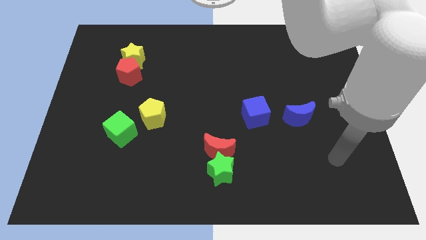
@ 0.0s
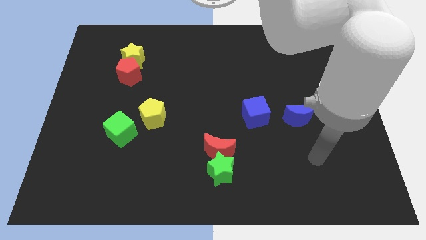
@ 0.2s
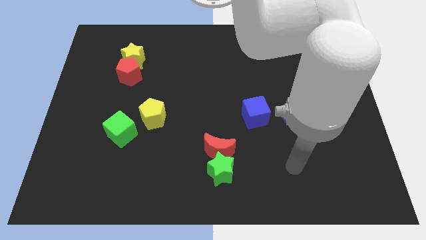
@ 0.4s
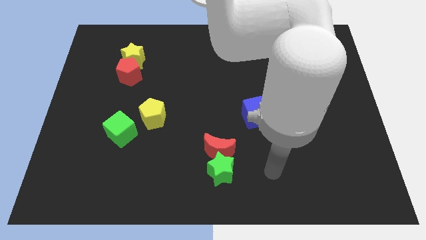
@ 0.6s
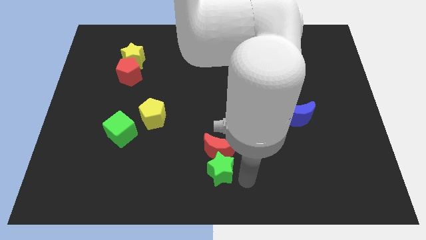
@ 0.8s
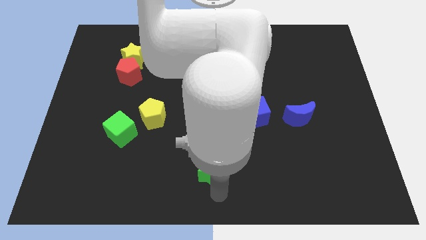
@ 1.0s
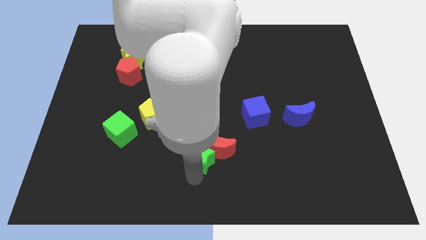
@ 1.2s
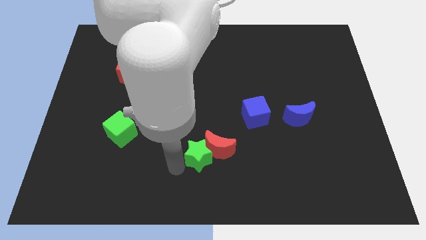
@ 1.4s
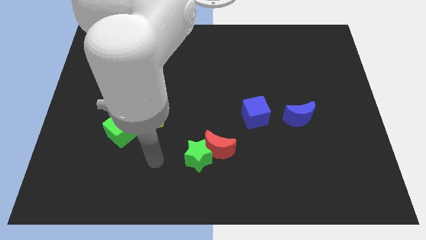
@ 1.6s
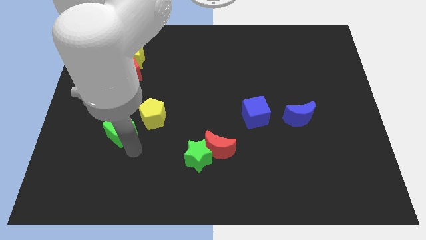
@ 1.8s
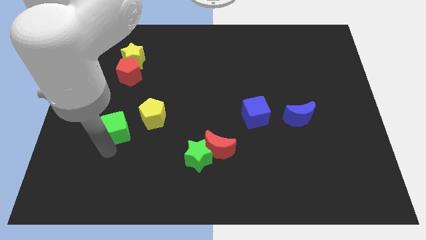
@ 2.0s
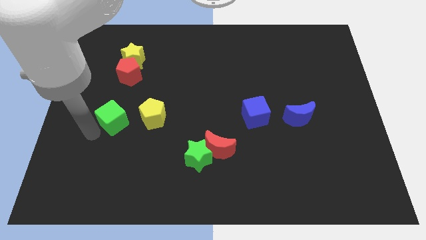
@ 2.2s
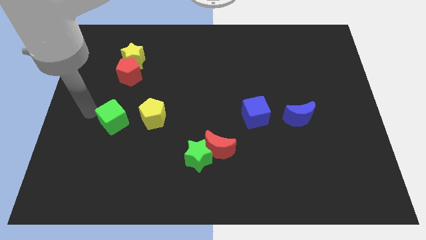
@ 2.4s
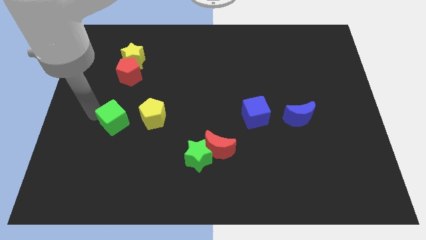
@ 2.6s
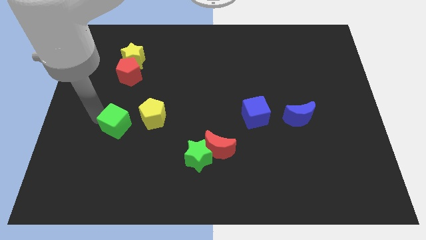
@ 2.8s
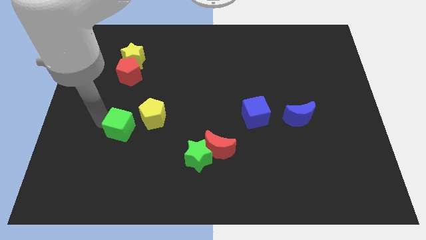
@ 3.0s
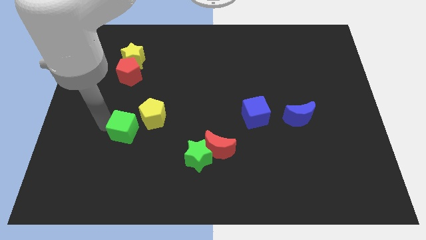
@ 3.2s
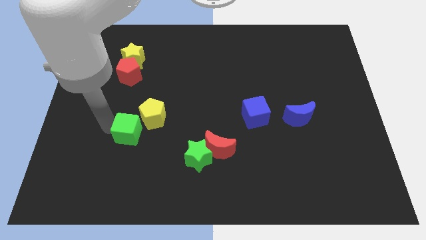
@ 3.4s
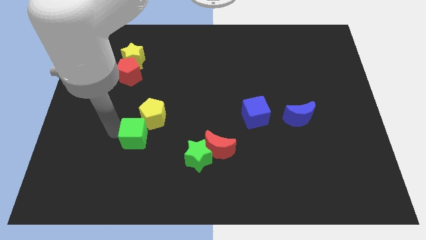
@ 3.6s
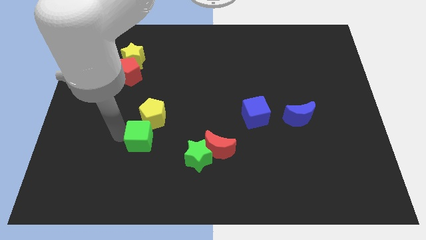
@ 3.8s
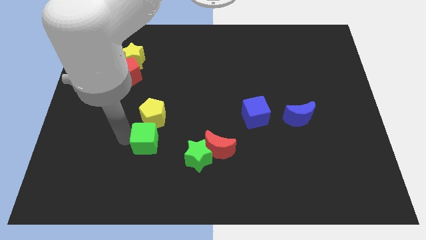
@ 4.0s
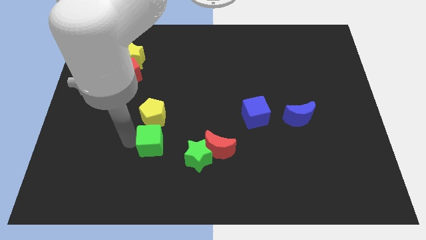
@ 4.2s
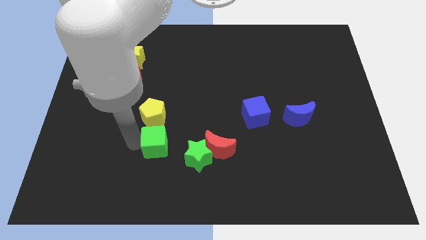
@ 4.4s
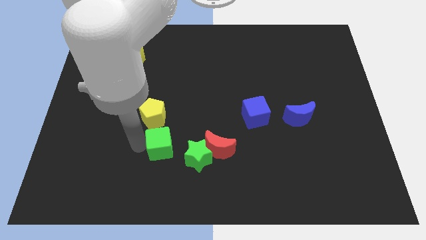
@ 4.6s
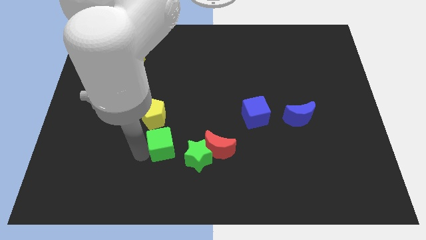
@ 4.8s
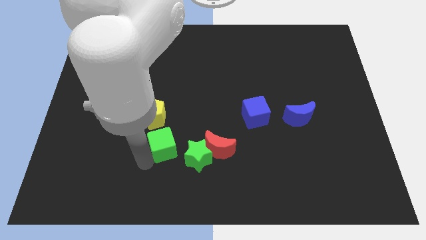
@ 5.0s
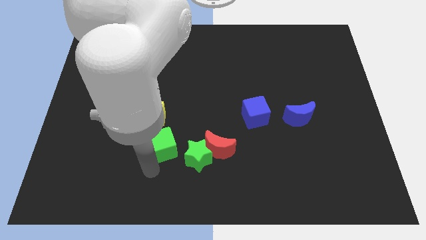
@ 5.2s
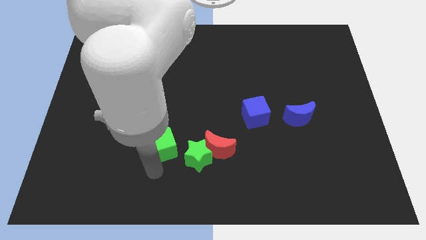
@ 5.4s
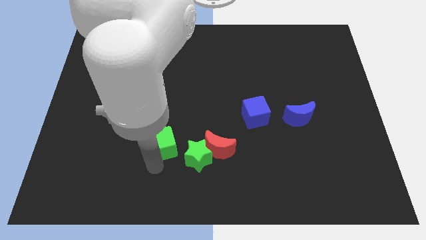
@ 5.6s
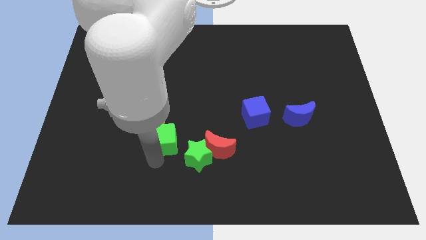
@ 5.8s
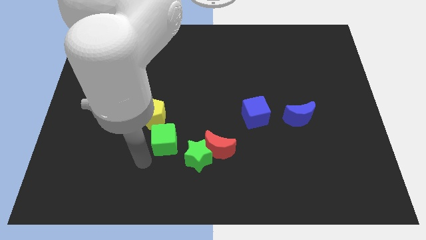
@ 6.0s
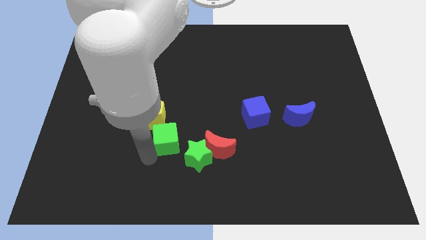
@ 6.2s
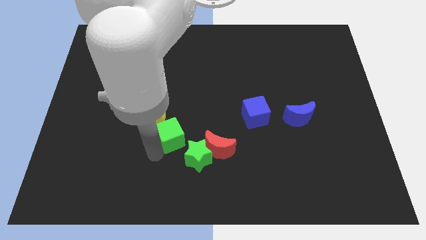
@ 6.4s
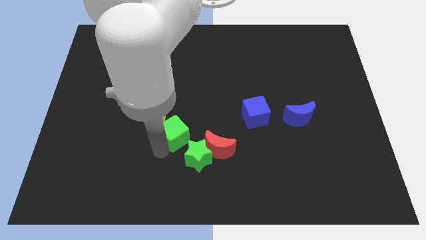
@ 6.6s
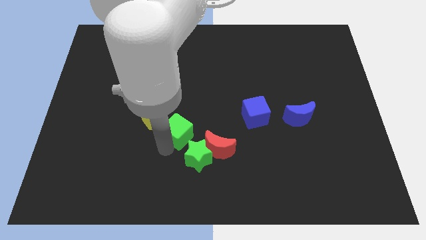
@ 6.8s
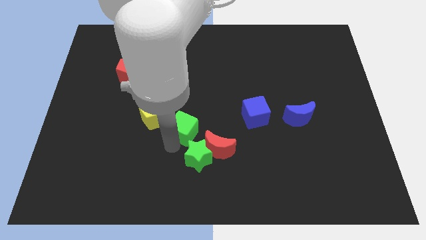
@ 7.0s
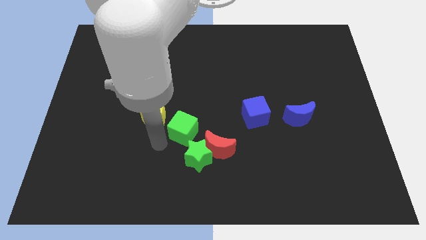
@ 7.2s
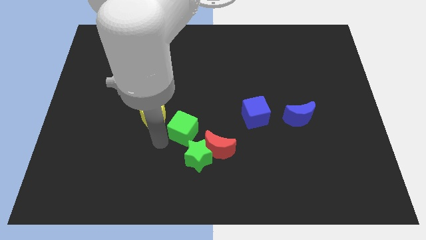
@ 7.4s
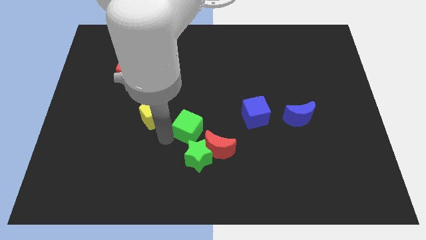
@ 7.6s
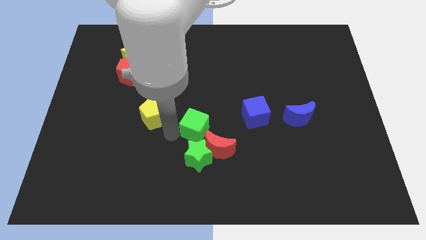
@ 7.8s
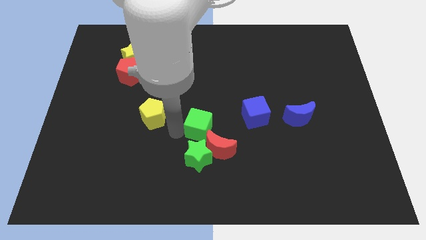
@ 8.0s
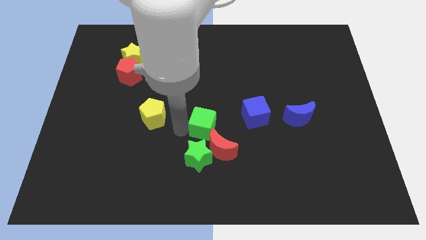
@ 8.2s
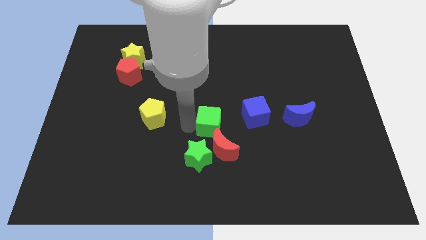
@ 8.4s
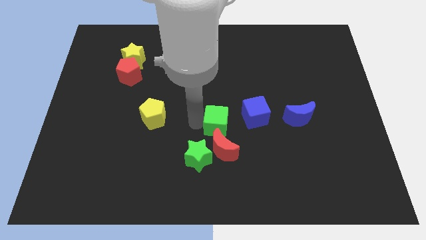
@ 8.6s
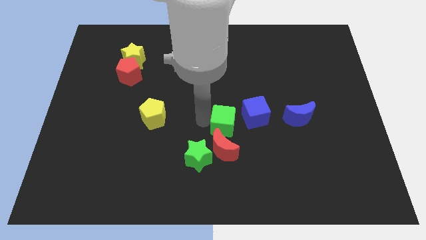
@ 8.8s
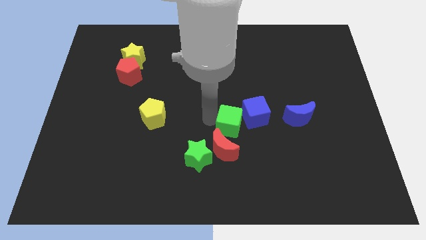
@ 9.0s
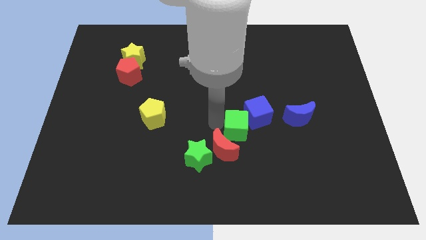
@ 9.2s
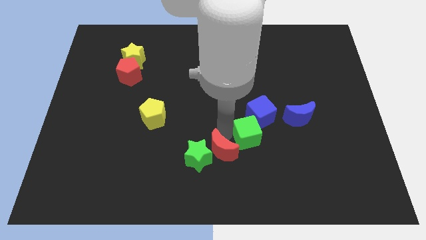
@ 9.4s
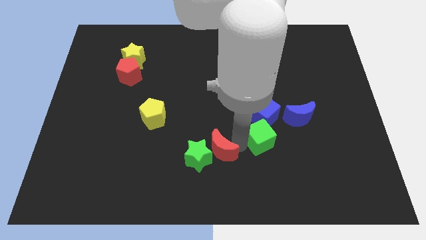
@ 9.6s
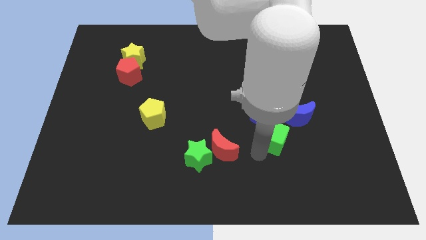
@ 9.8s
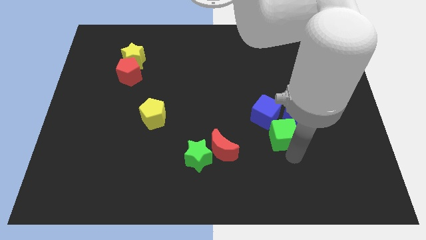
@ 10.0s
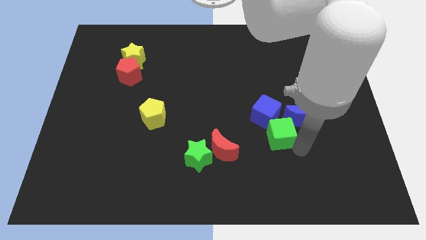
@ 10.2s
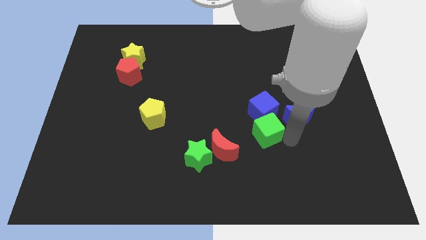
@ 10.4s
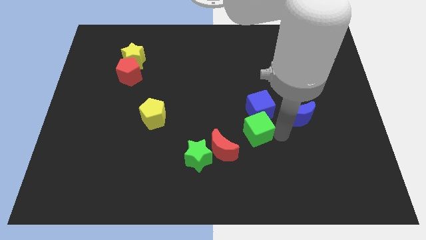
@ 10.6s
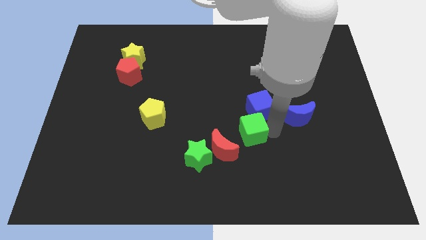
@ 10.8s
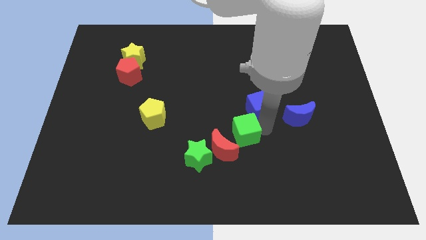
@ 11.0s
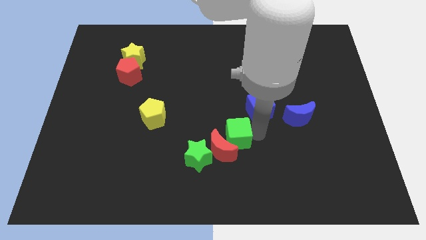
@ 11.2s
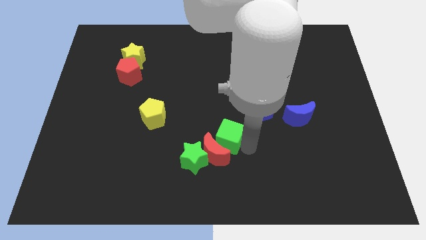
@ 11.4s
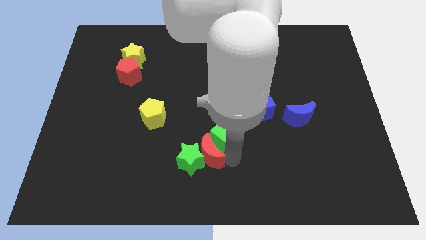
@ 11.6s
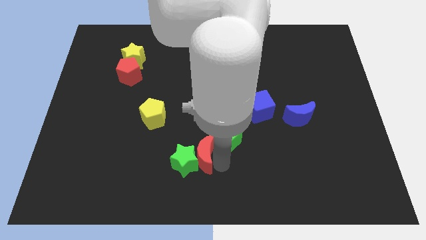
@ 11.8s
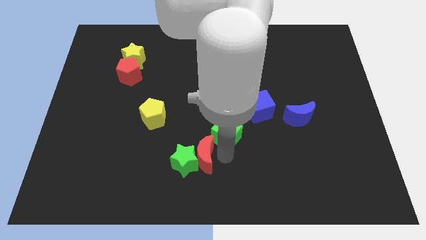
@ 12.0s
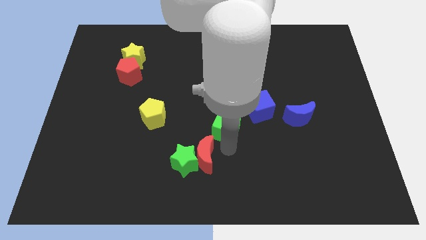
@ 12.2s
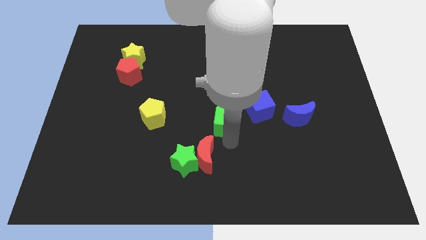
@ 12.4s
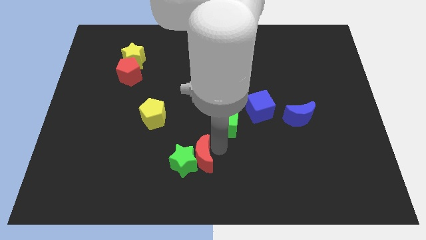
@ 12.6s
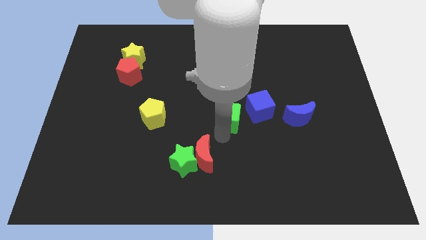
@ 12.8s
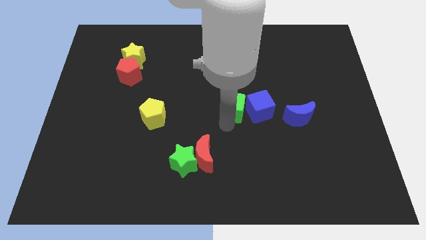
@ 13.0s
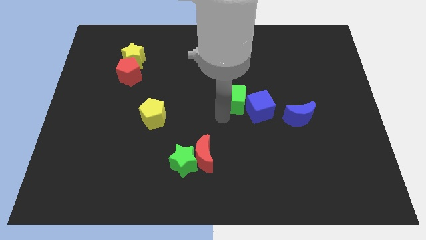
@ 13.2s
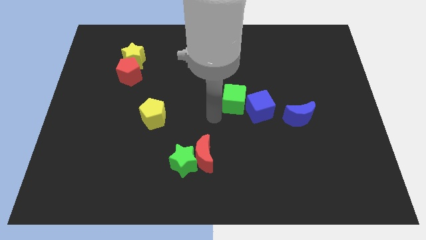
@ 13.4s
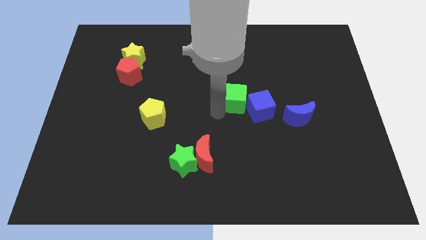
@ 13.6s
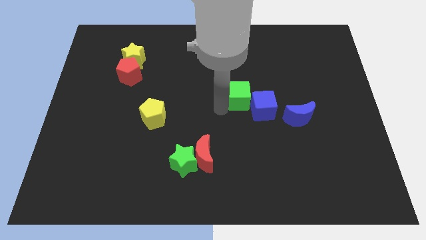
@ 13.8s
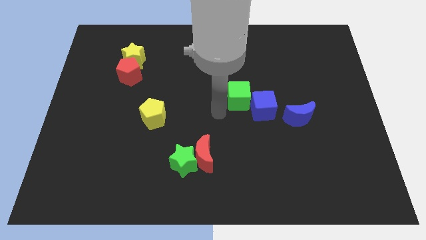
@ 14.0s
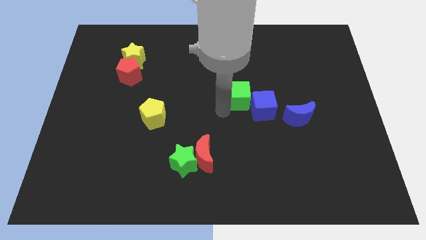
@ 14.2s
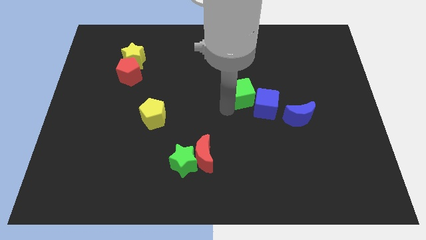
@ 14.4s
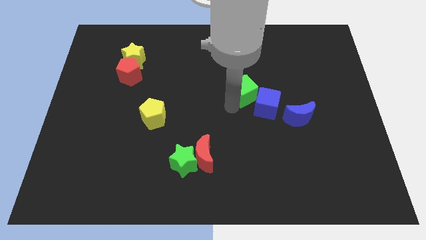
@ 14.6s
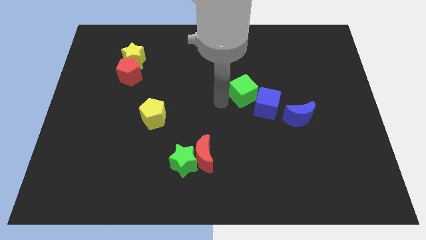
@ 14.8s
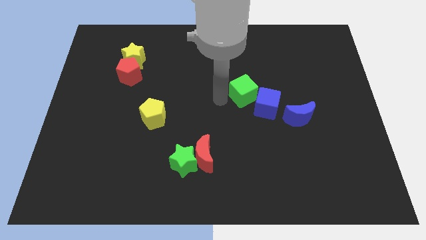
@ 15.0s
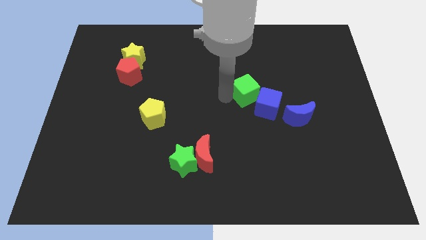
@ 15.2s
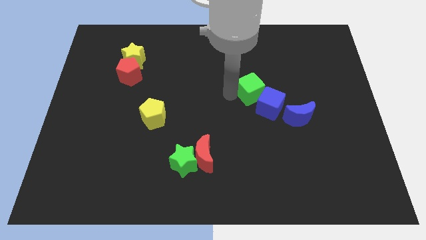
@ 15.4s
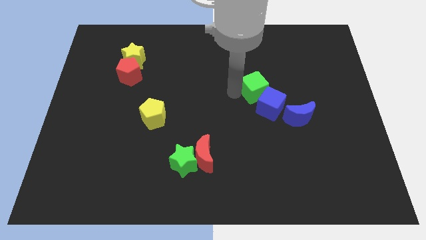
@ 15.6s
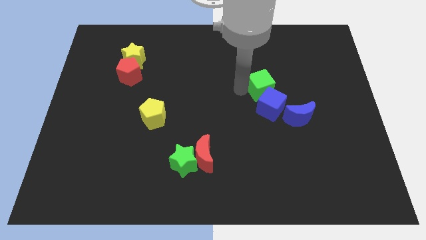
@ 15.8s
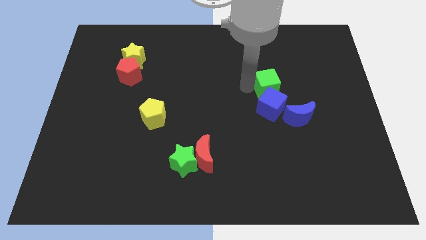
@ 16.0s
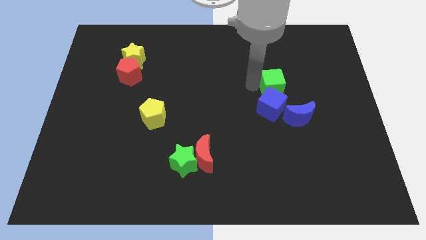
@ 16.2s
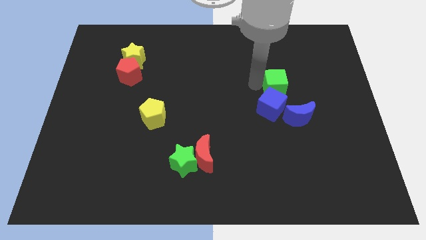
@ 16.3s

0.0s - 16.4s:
put the green cube to the top of the blue moon
